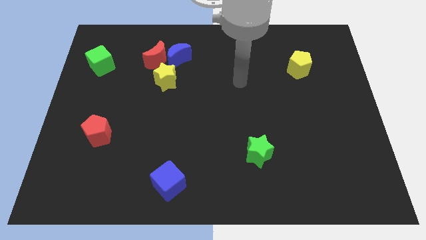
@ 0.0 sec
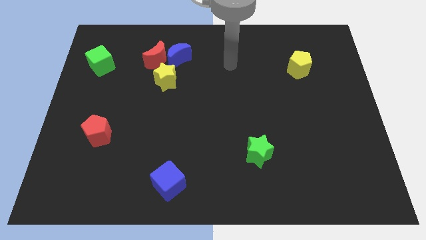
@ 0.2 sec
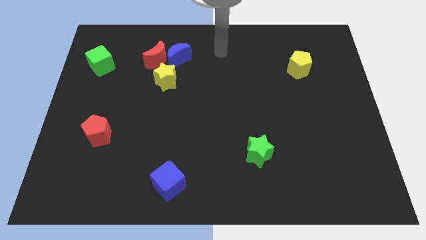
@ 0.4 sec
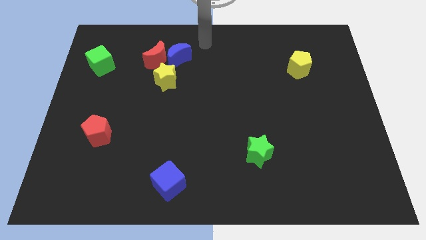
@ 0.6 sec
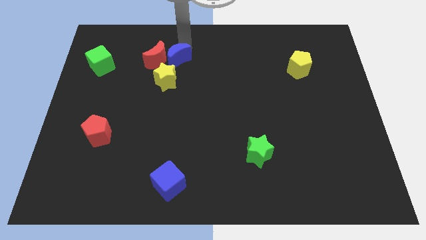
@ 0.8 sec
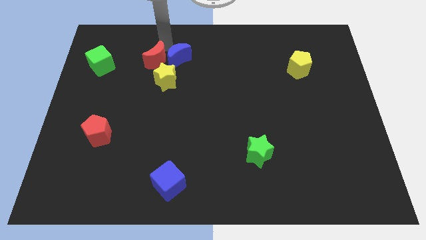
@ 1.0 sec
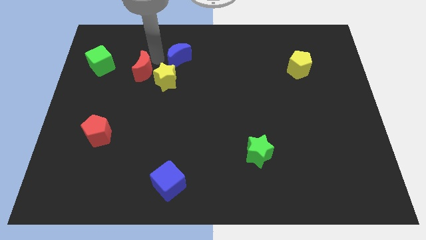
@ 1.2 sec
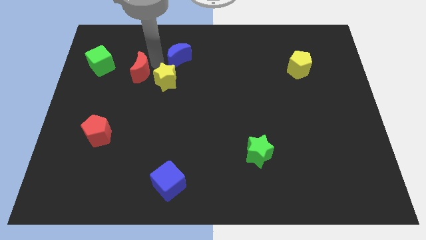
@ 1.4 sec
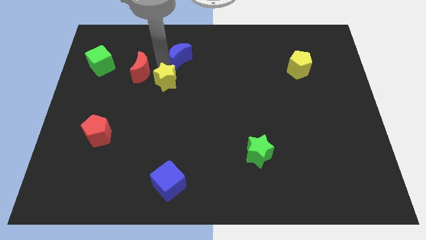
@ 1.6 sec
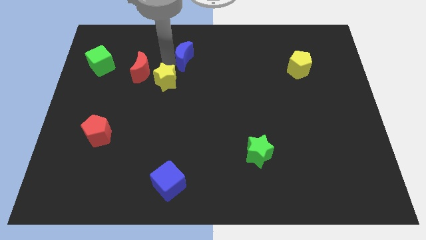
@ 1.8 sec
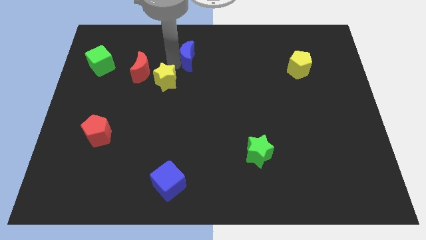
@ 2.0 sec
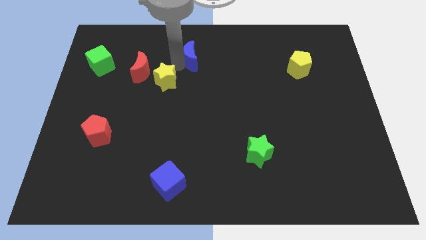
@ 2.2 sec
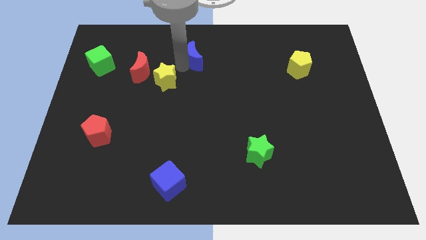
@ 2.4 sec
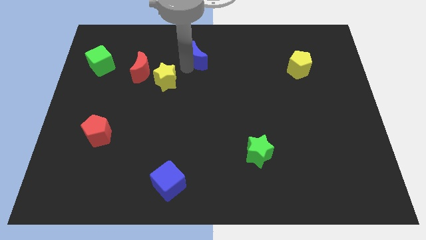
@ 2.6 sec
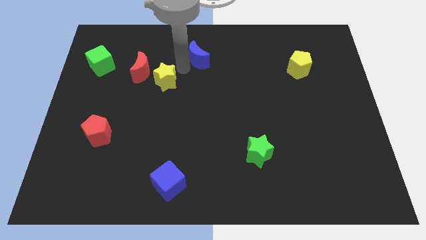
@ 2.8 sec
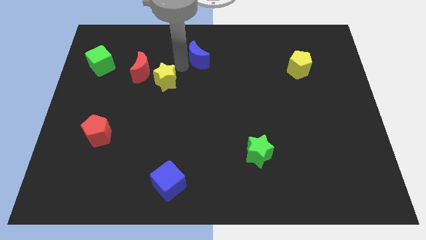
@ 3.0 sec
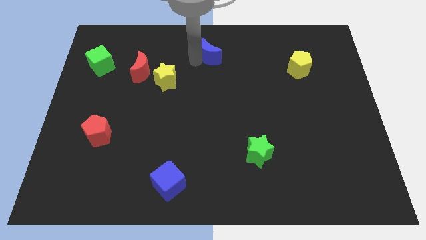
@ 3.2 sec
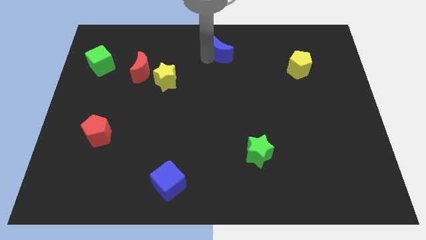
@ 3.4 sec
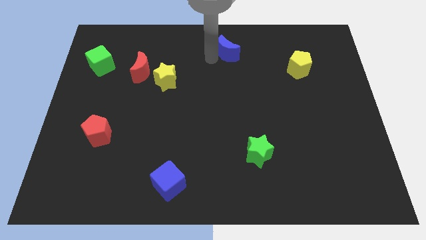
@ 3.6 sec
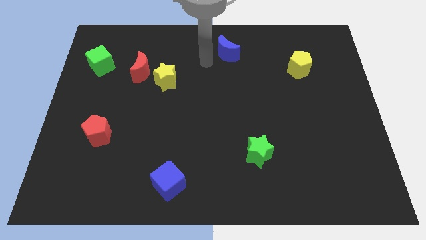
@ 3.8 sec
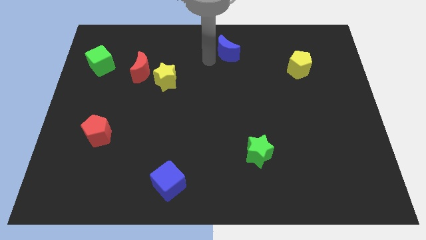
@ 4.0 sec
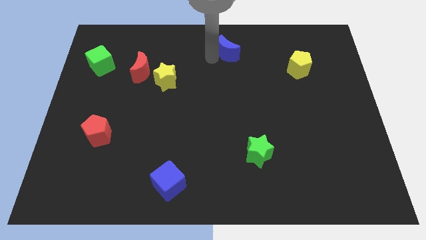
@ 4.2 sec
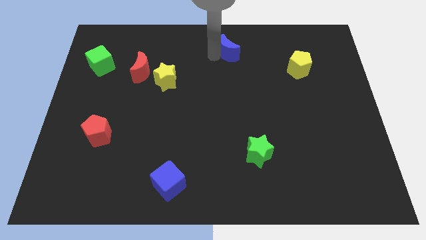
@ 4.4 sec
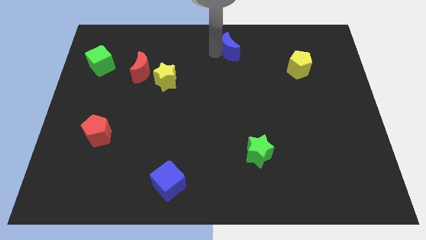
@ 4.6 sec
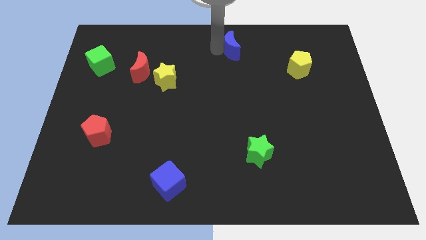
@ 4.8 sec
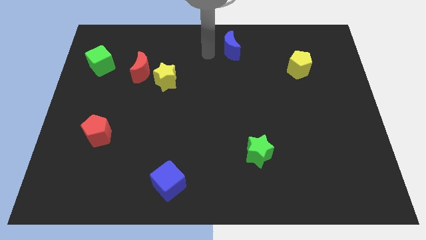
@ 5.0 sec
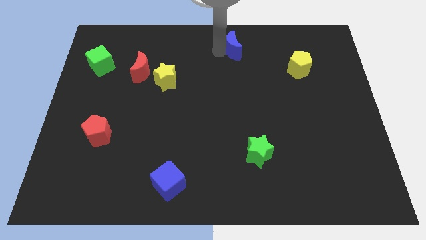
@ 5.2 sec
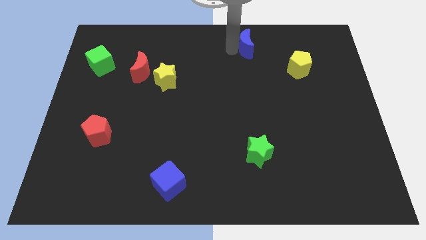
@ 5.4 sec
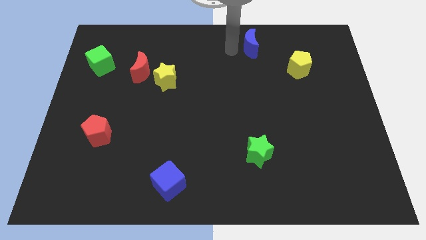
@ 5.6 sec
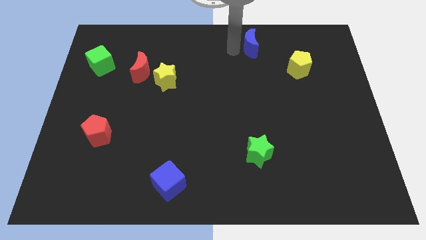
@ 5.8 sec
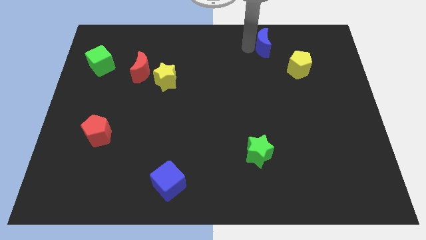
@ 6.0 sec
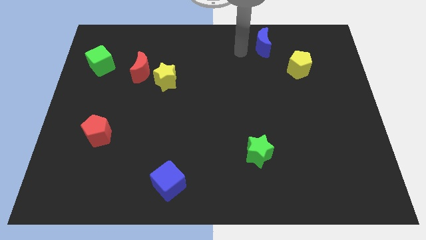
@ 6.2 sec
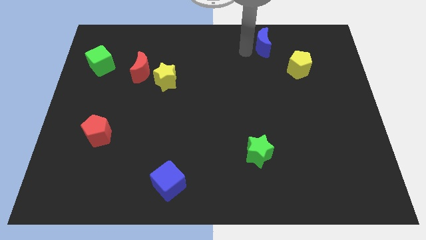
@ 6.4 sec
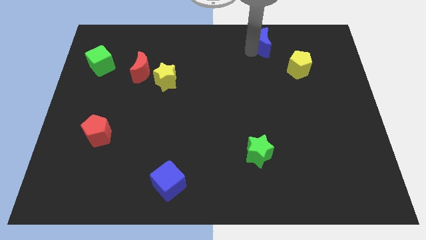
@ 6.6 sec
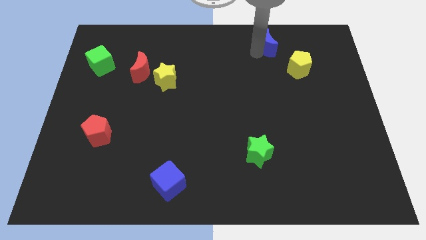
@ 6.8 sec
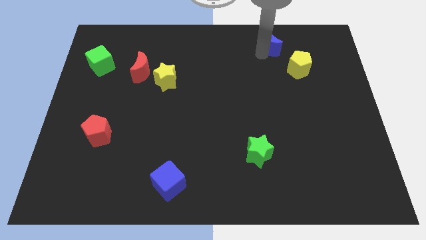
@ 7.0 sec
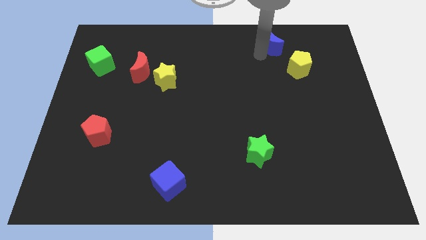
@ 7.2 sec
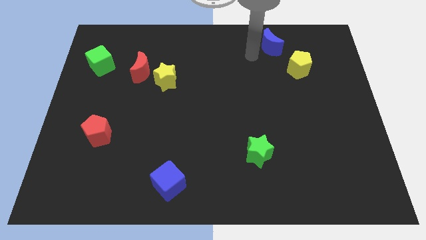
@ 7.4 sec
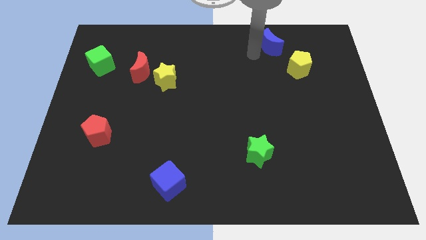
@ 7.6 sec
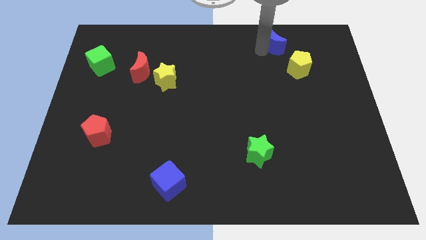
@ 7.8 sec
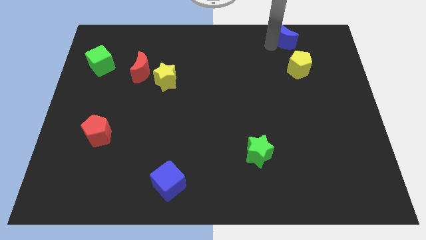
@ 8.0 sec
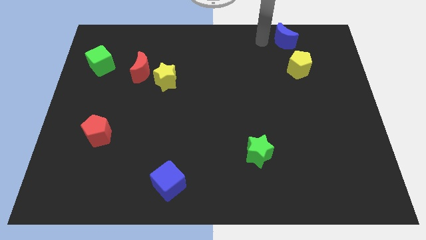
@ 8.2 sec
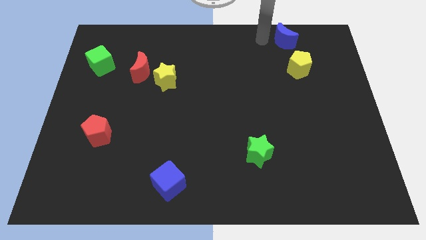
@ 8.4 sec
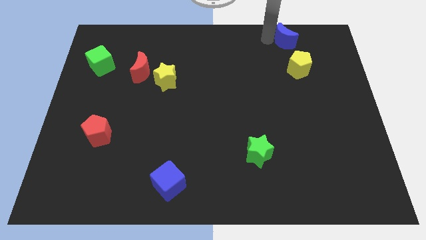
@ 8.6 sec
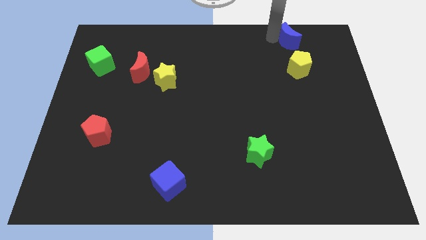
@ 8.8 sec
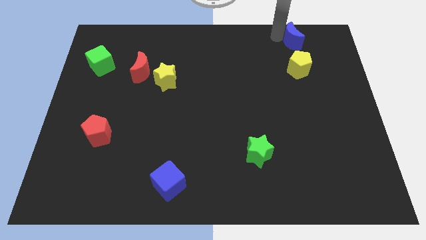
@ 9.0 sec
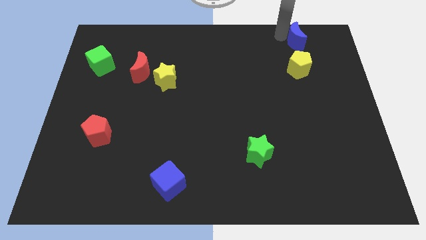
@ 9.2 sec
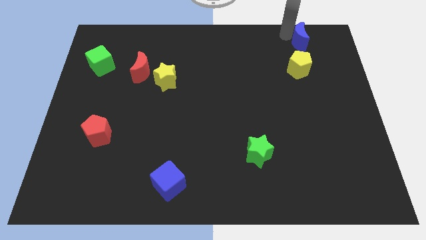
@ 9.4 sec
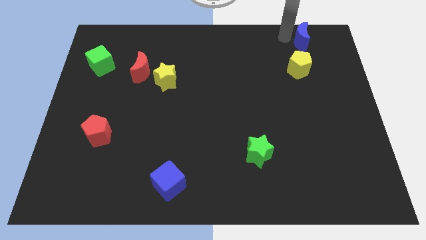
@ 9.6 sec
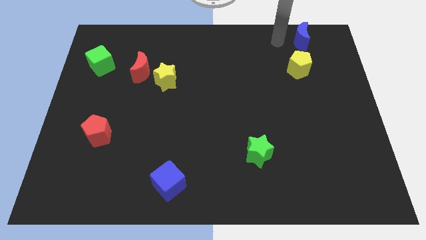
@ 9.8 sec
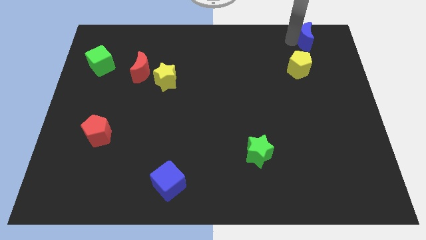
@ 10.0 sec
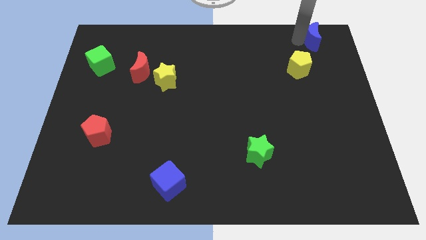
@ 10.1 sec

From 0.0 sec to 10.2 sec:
move the blue moon to the top right corner

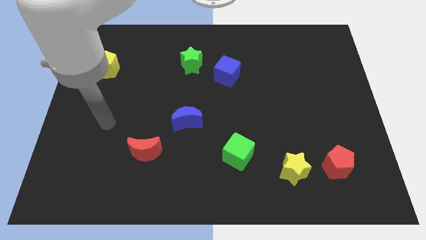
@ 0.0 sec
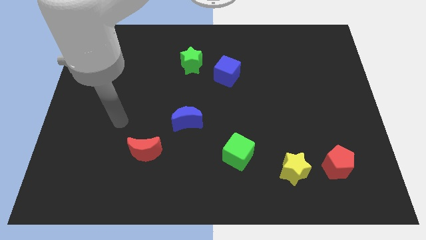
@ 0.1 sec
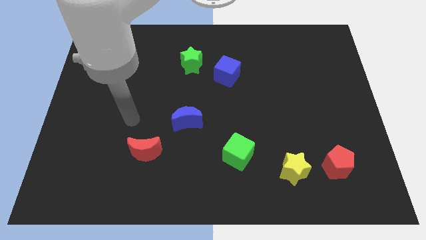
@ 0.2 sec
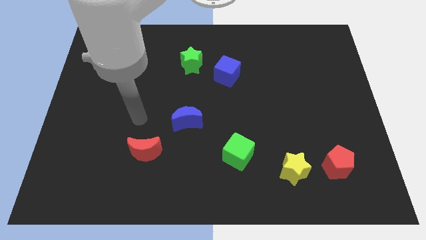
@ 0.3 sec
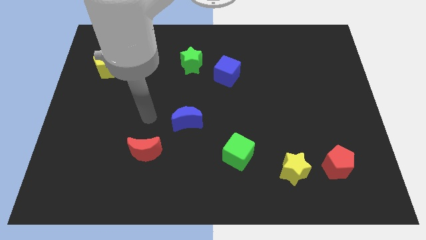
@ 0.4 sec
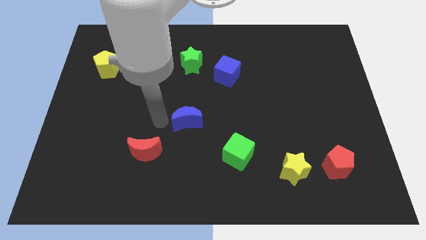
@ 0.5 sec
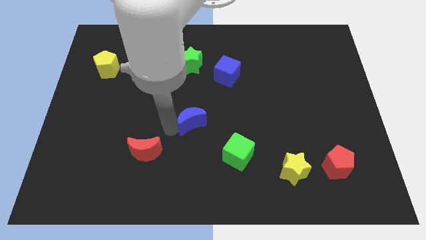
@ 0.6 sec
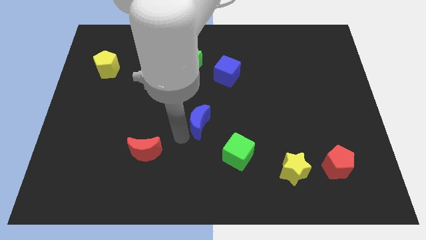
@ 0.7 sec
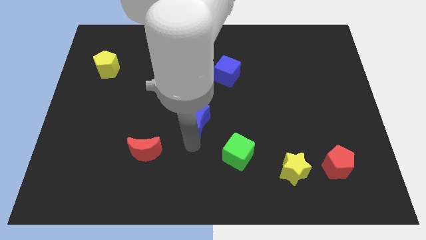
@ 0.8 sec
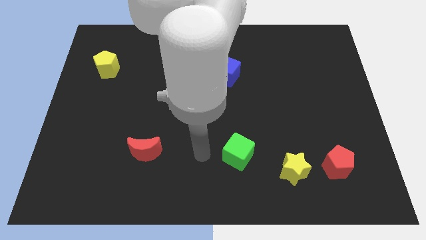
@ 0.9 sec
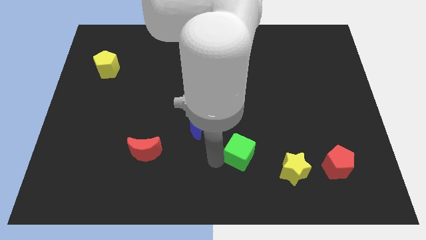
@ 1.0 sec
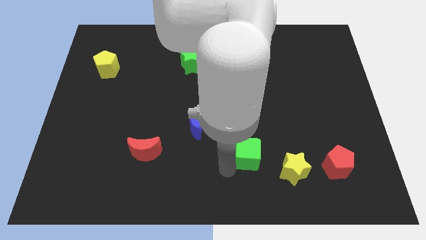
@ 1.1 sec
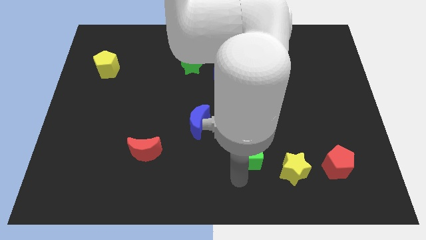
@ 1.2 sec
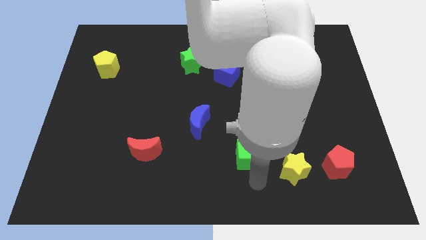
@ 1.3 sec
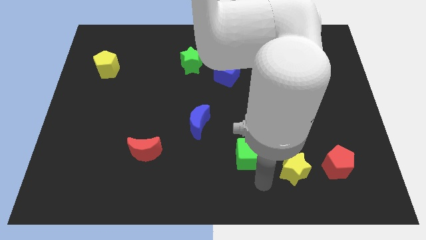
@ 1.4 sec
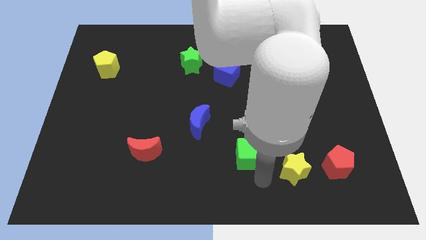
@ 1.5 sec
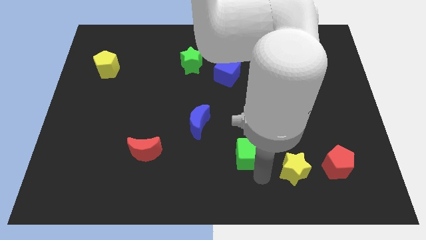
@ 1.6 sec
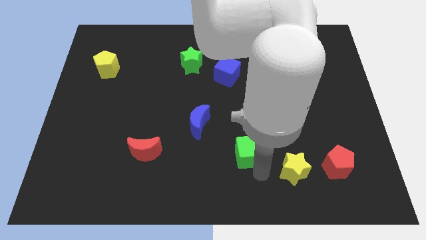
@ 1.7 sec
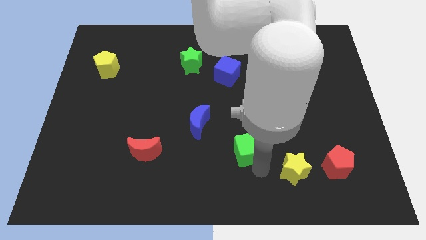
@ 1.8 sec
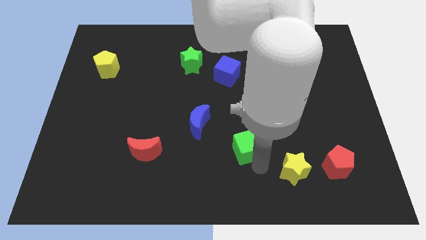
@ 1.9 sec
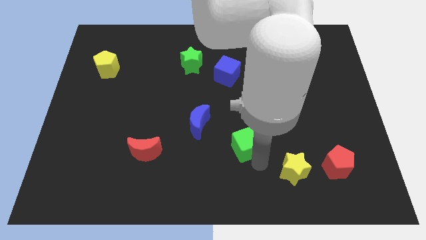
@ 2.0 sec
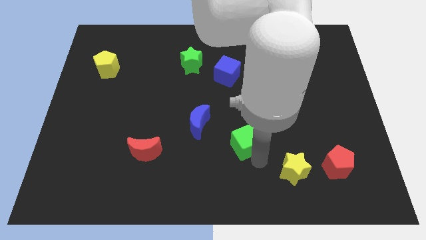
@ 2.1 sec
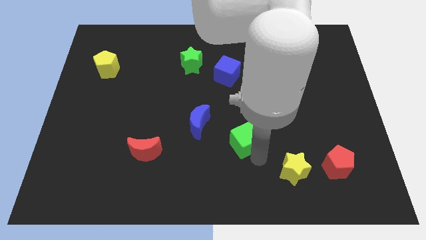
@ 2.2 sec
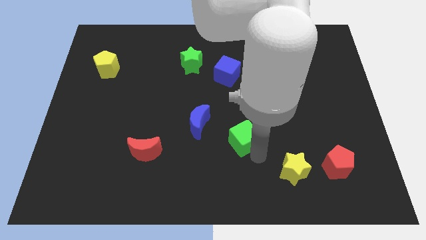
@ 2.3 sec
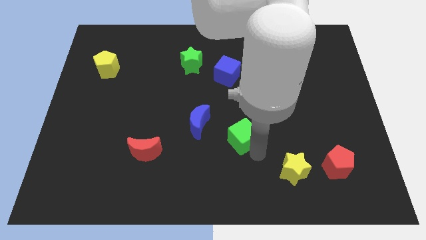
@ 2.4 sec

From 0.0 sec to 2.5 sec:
put the green cube to the center
